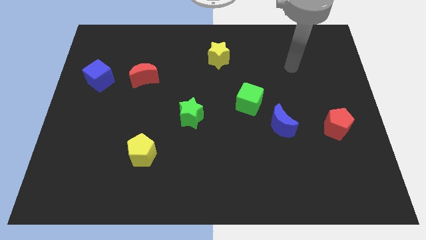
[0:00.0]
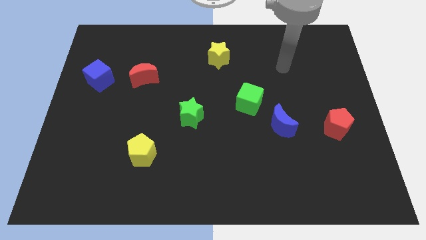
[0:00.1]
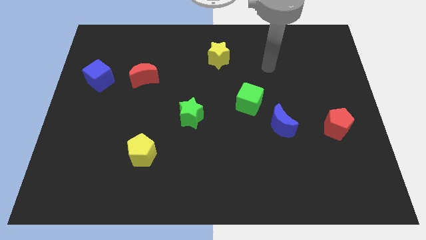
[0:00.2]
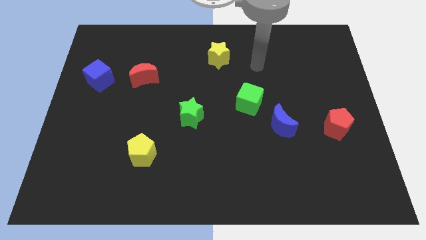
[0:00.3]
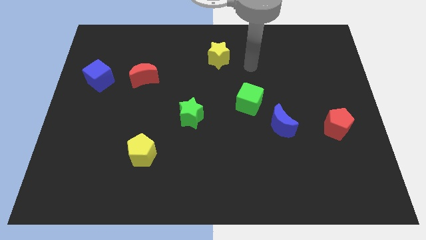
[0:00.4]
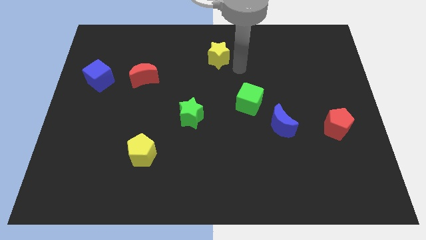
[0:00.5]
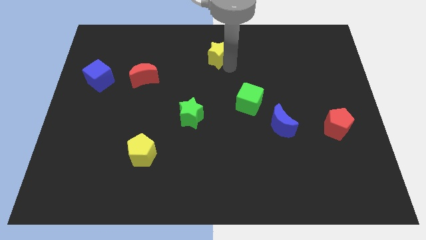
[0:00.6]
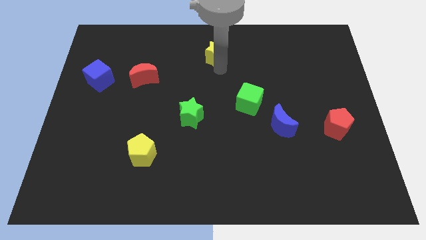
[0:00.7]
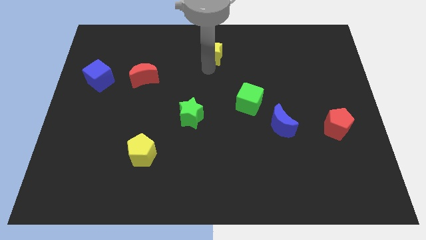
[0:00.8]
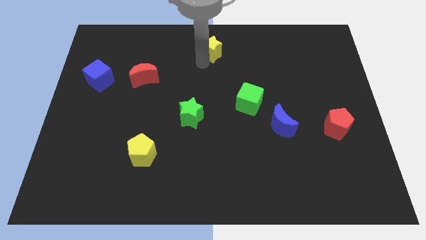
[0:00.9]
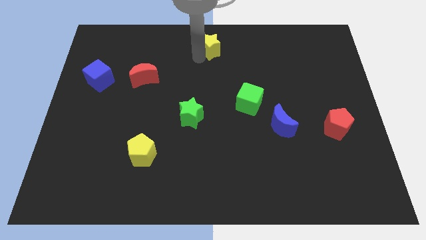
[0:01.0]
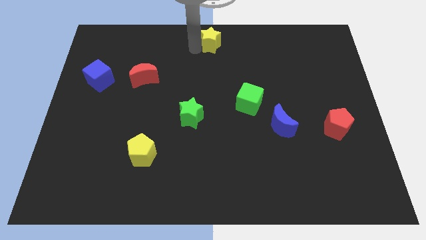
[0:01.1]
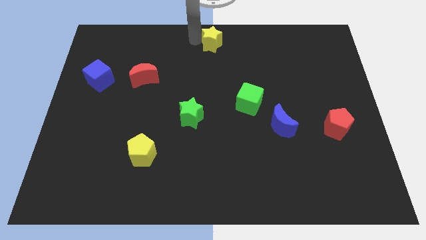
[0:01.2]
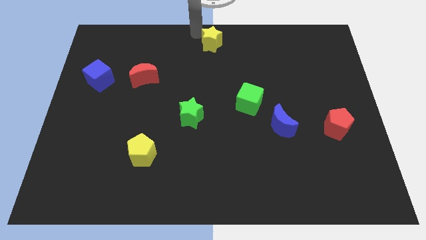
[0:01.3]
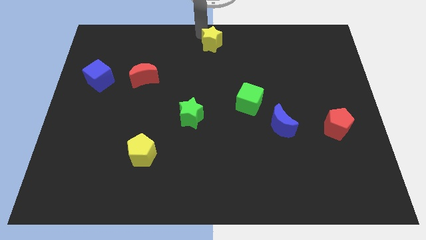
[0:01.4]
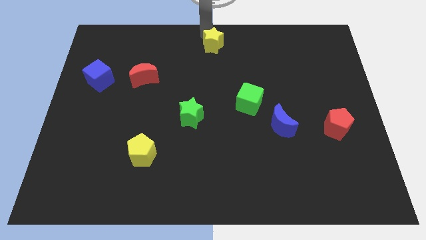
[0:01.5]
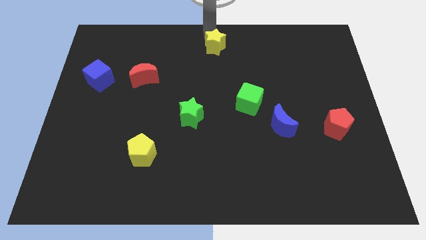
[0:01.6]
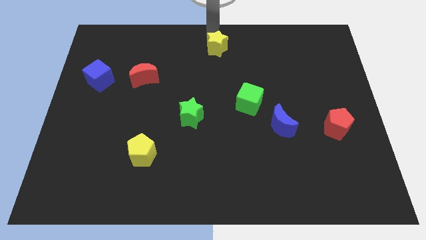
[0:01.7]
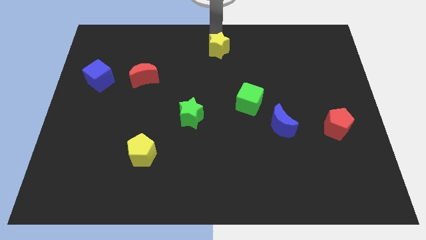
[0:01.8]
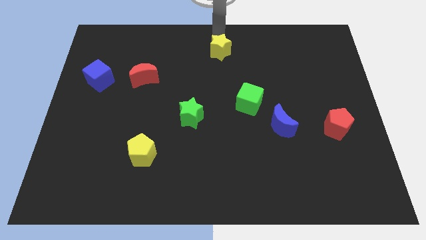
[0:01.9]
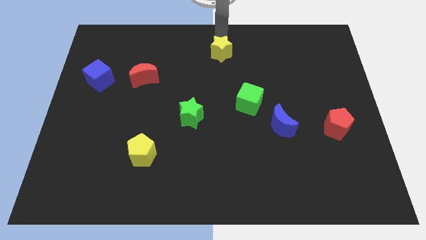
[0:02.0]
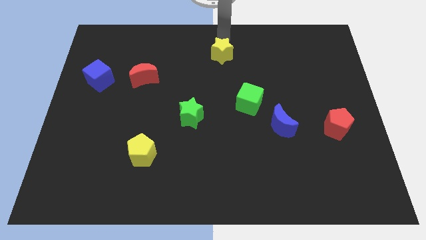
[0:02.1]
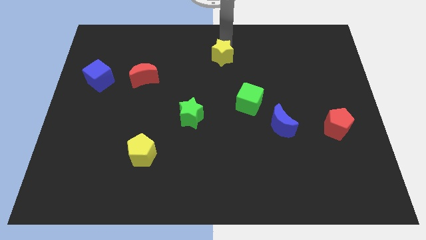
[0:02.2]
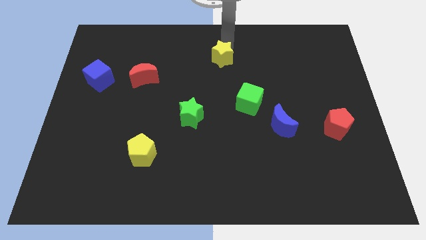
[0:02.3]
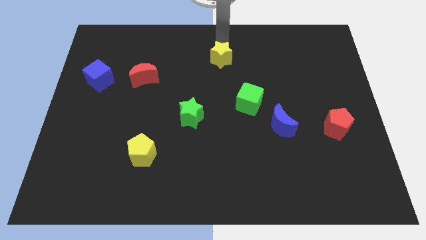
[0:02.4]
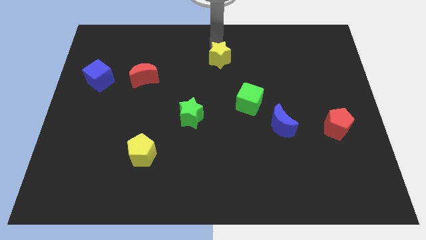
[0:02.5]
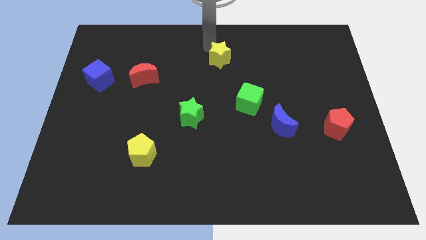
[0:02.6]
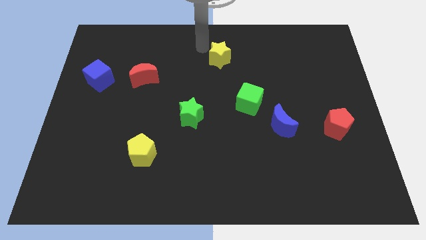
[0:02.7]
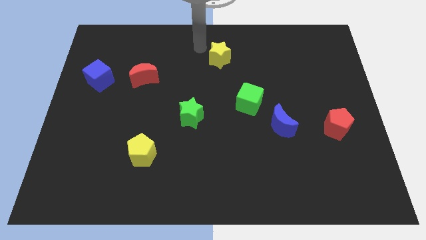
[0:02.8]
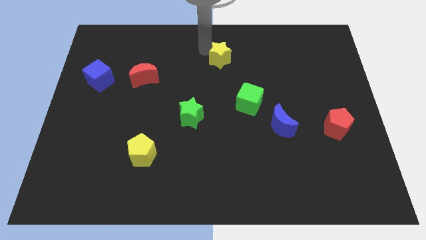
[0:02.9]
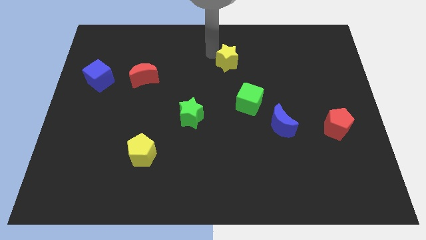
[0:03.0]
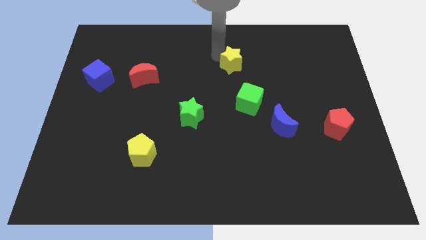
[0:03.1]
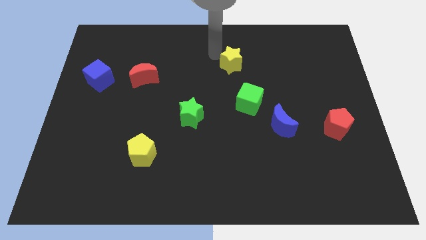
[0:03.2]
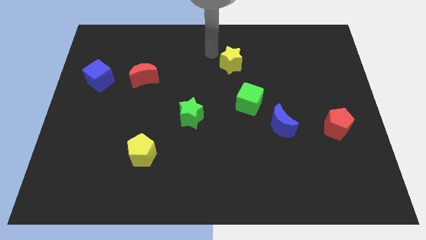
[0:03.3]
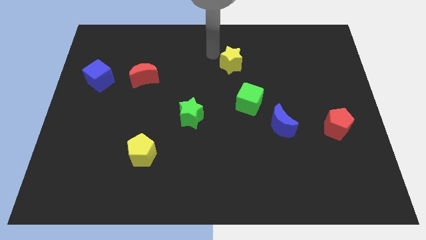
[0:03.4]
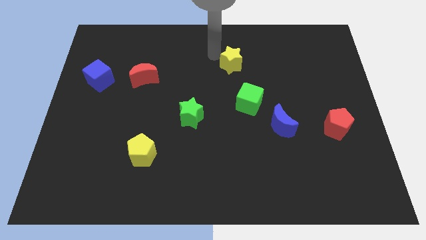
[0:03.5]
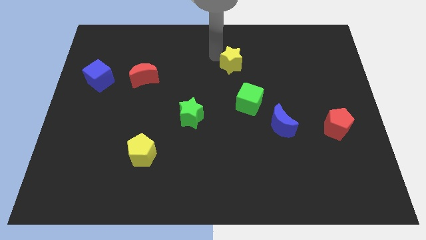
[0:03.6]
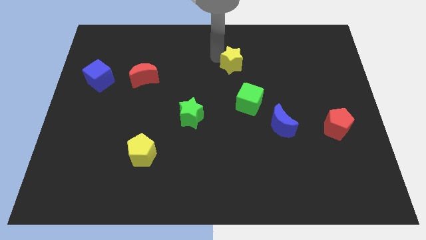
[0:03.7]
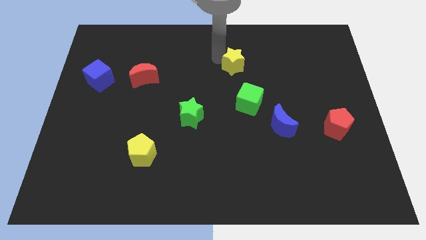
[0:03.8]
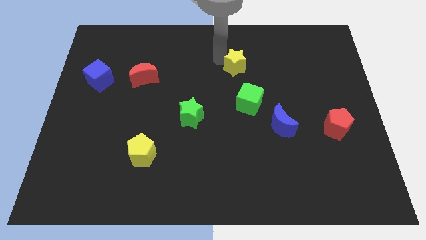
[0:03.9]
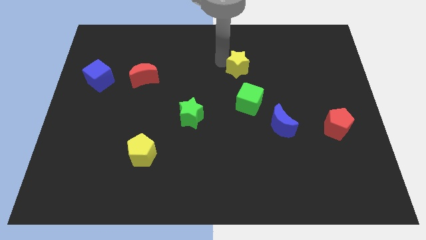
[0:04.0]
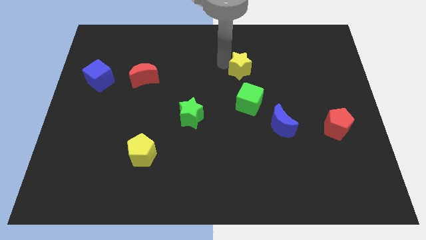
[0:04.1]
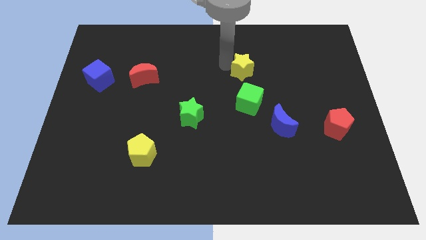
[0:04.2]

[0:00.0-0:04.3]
slide the yellow star downwards and then to the right a little bit

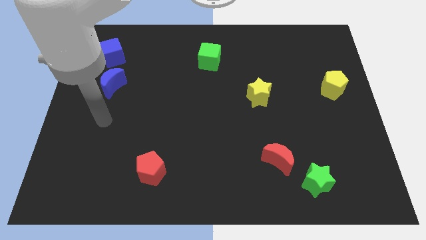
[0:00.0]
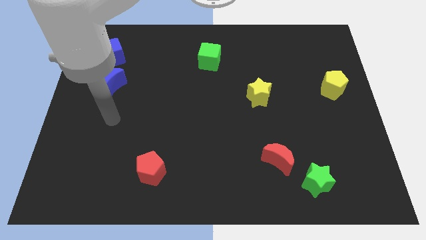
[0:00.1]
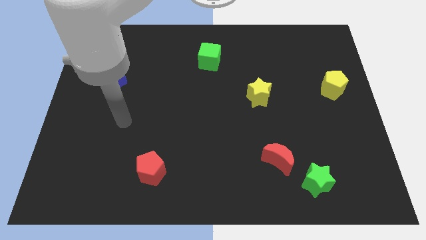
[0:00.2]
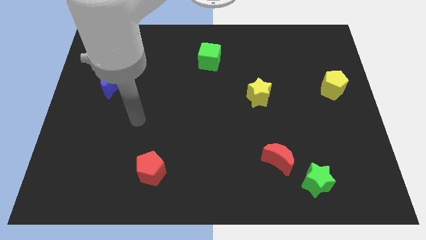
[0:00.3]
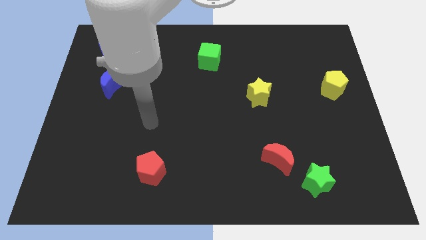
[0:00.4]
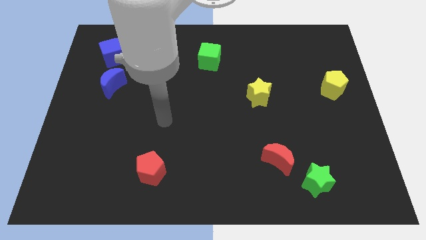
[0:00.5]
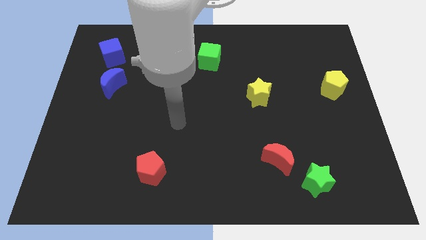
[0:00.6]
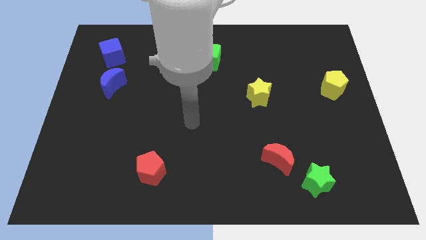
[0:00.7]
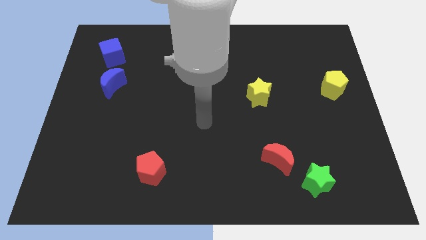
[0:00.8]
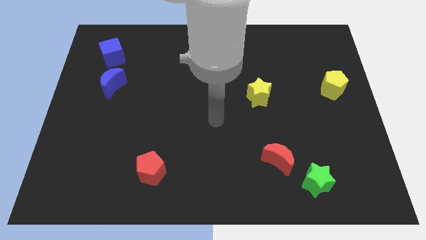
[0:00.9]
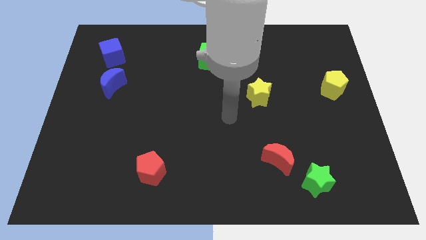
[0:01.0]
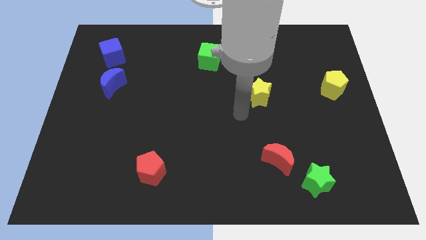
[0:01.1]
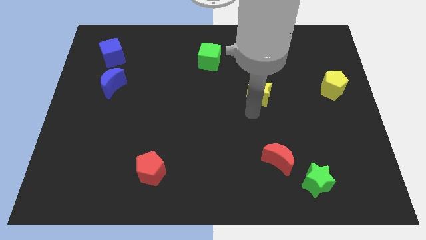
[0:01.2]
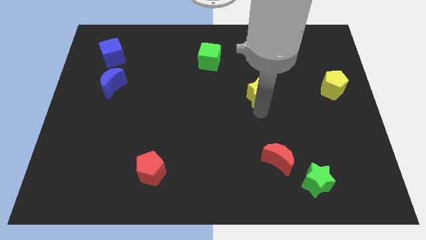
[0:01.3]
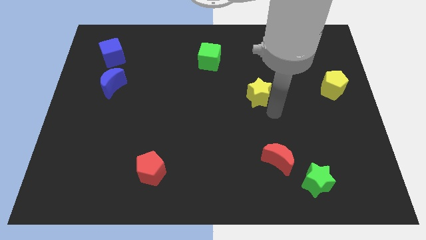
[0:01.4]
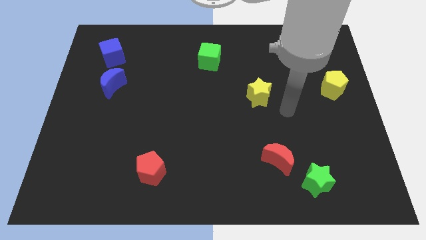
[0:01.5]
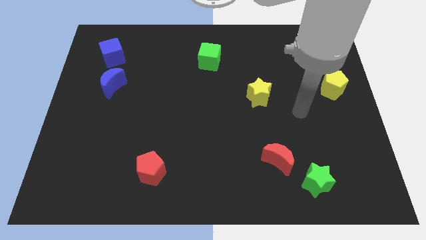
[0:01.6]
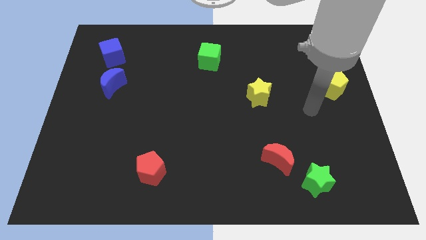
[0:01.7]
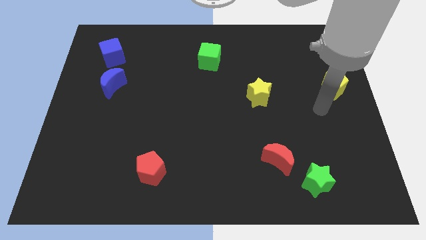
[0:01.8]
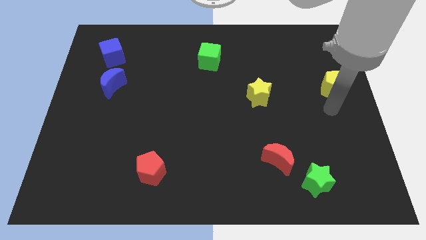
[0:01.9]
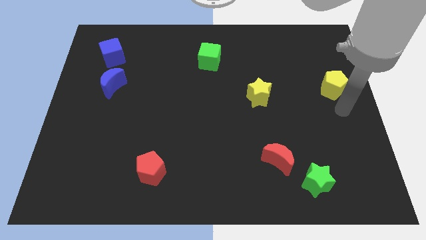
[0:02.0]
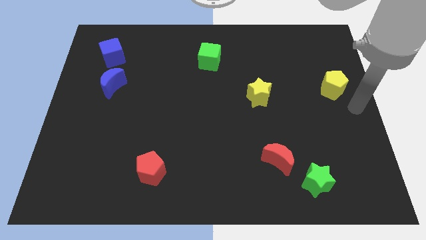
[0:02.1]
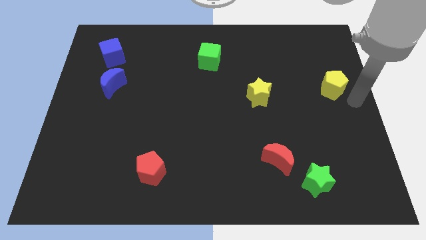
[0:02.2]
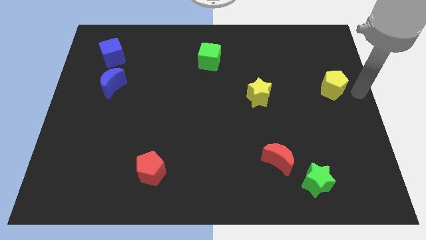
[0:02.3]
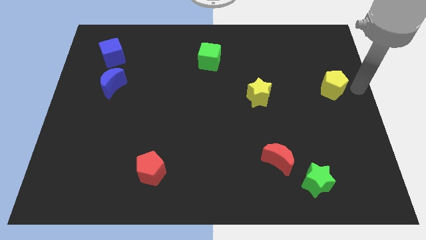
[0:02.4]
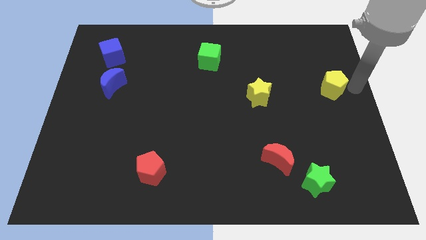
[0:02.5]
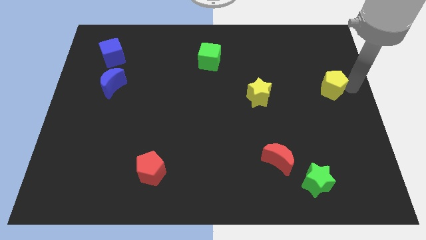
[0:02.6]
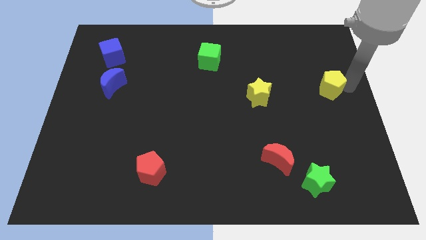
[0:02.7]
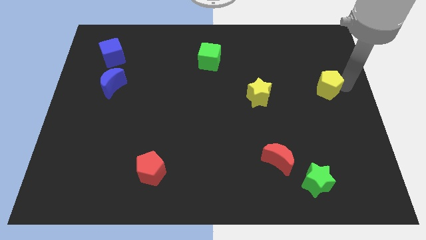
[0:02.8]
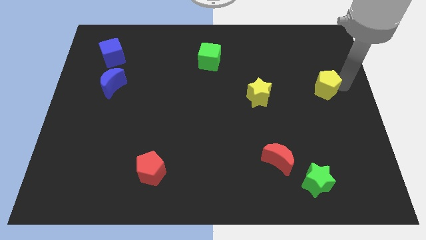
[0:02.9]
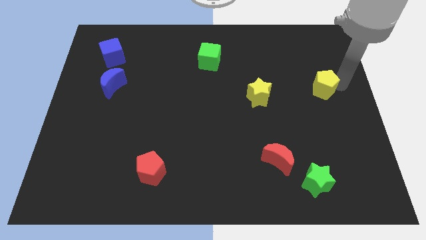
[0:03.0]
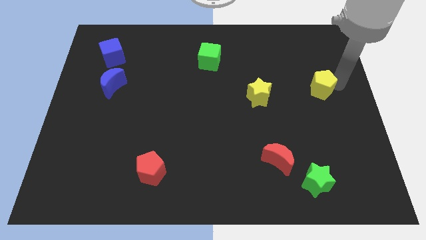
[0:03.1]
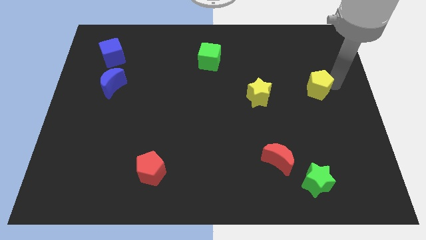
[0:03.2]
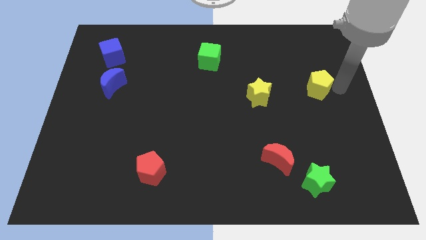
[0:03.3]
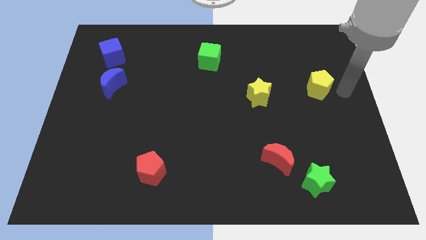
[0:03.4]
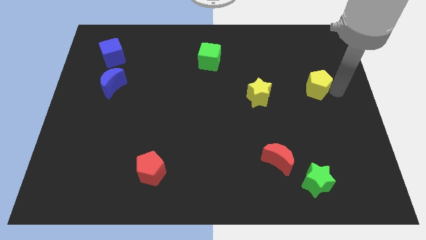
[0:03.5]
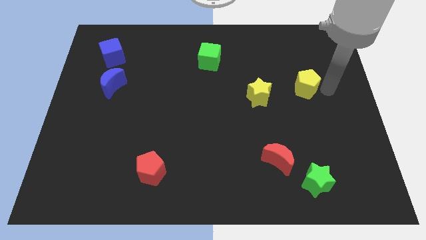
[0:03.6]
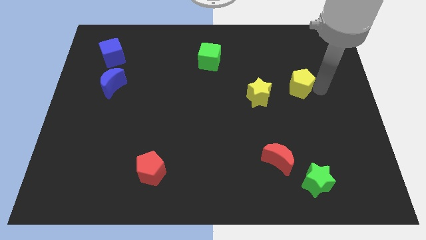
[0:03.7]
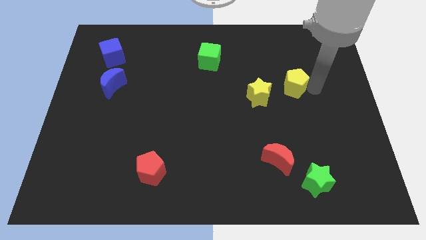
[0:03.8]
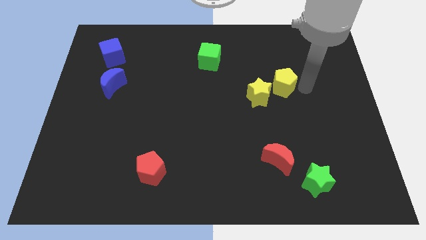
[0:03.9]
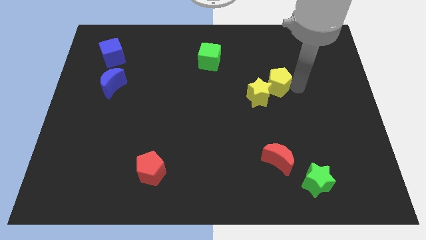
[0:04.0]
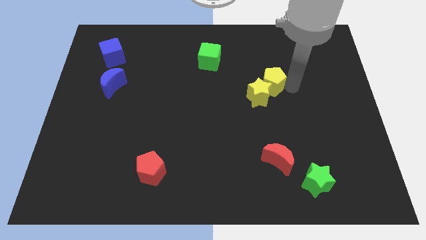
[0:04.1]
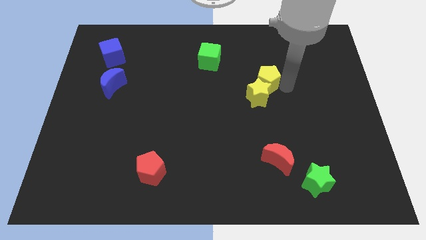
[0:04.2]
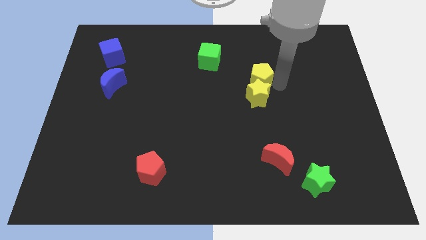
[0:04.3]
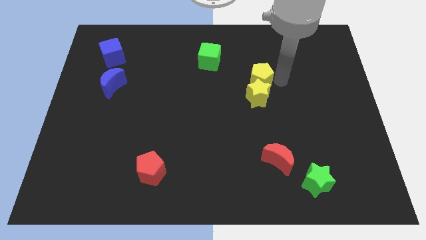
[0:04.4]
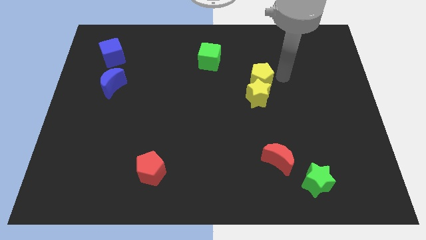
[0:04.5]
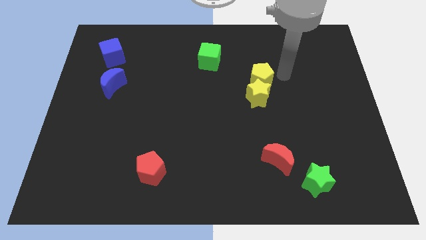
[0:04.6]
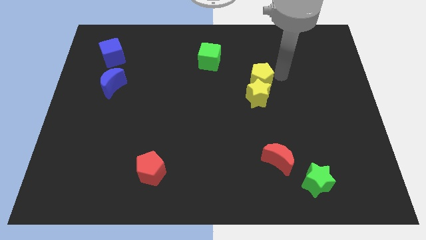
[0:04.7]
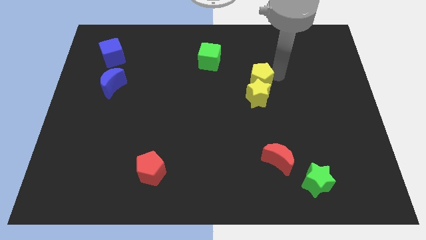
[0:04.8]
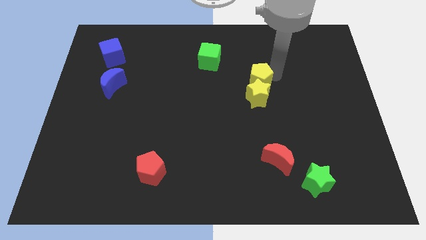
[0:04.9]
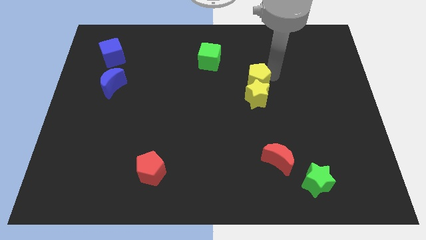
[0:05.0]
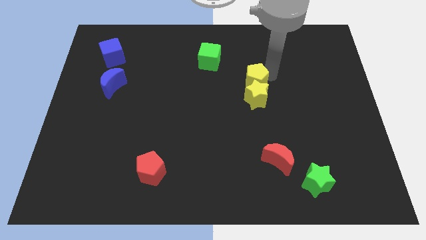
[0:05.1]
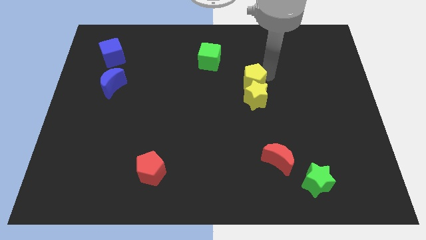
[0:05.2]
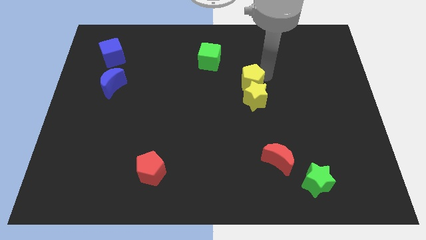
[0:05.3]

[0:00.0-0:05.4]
push the yellow pentagon to the left
